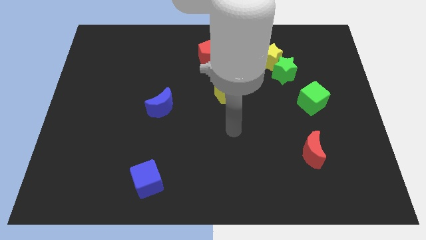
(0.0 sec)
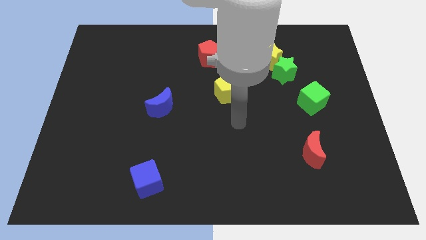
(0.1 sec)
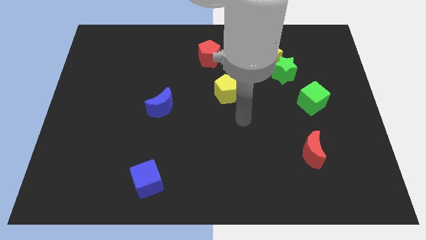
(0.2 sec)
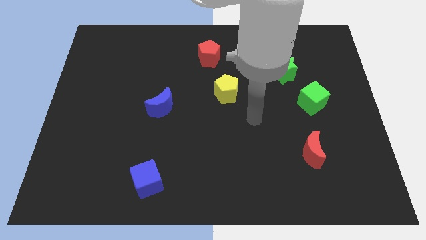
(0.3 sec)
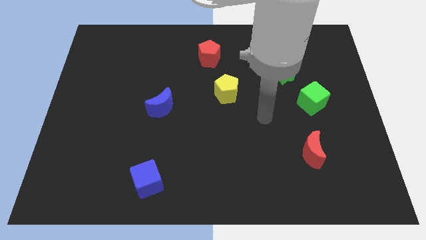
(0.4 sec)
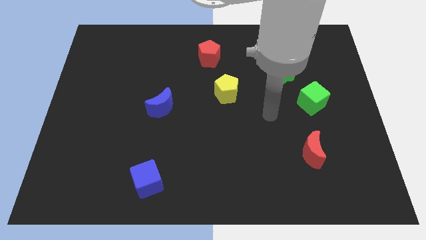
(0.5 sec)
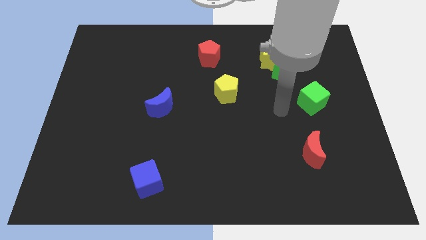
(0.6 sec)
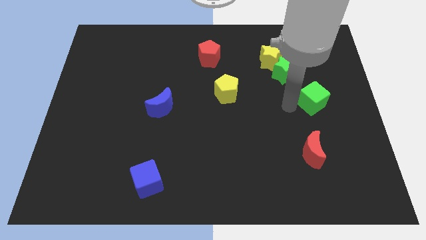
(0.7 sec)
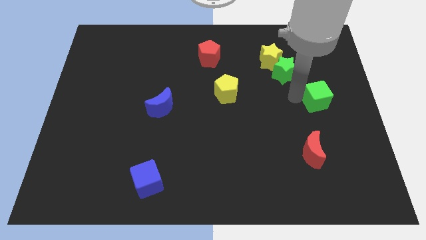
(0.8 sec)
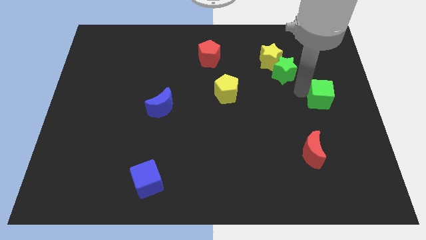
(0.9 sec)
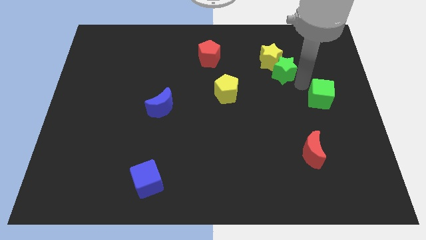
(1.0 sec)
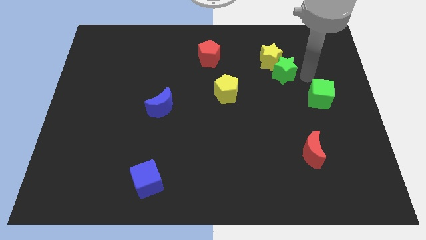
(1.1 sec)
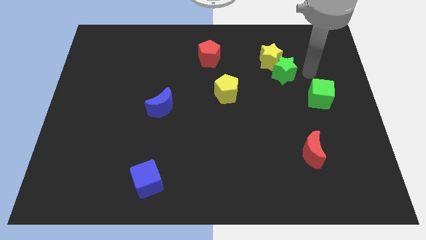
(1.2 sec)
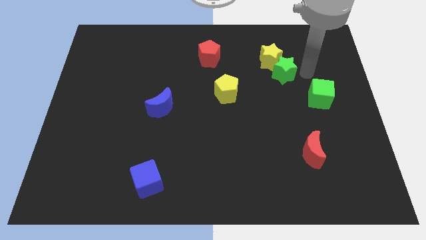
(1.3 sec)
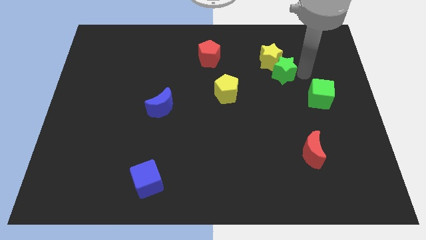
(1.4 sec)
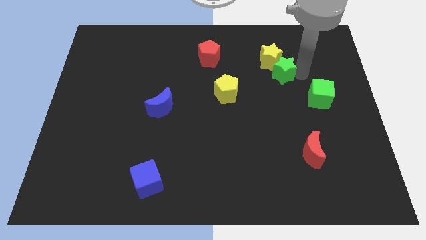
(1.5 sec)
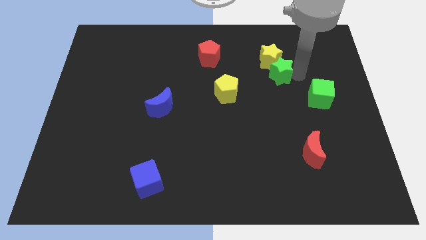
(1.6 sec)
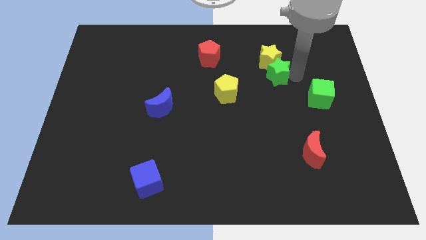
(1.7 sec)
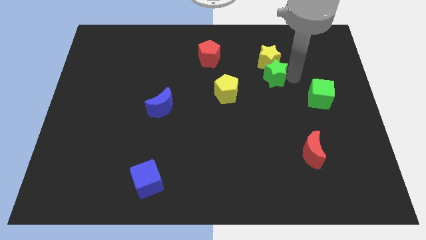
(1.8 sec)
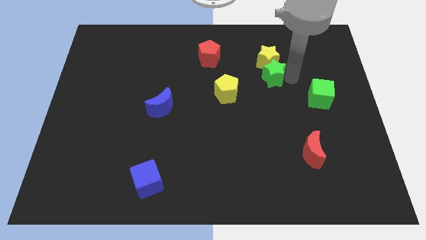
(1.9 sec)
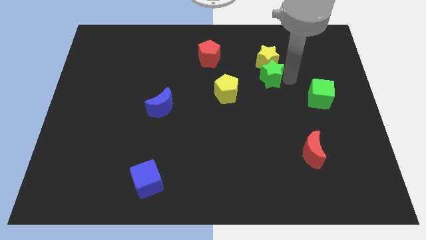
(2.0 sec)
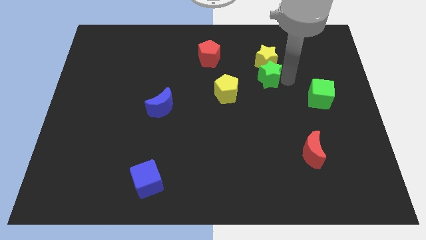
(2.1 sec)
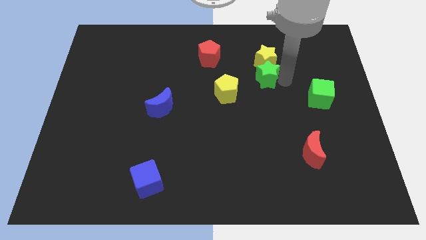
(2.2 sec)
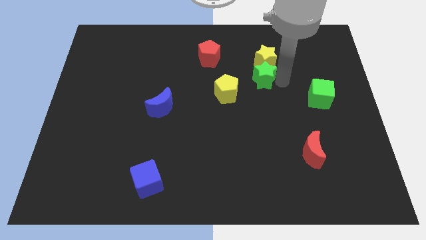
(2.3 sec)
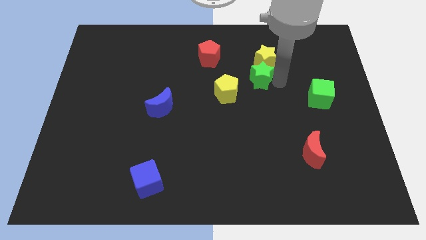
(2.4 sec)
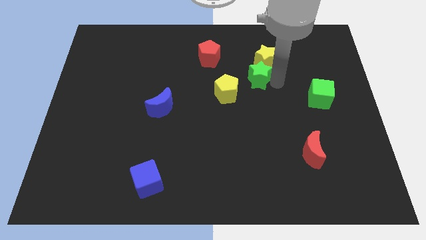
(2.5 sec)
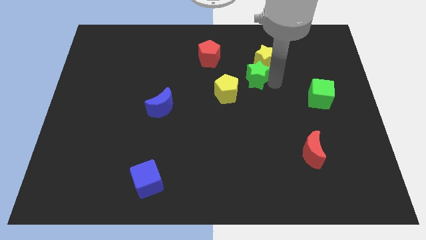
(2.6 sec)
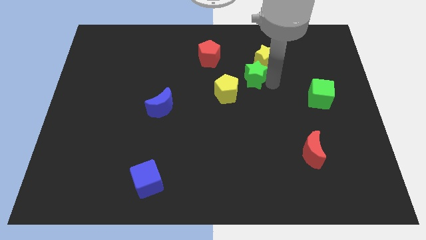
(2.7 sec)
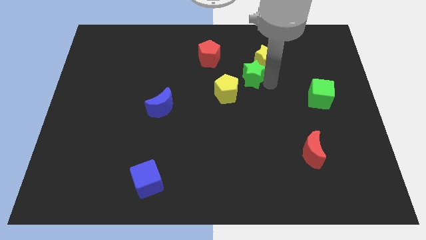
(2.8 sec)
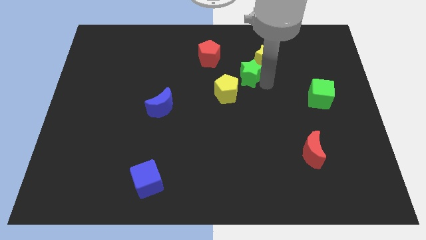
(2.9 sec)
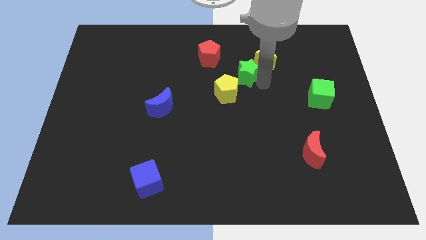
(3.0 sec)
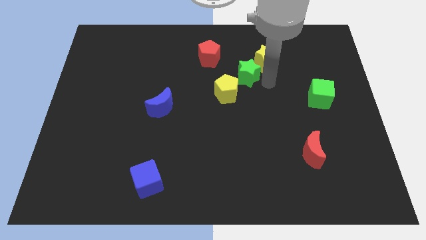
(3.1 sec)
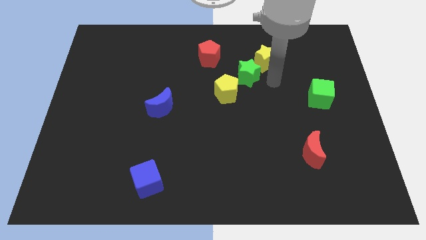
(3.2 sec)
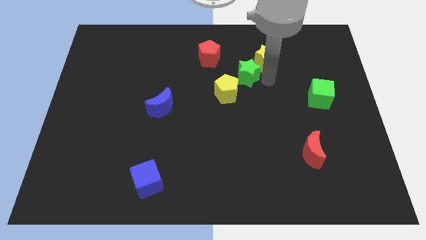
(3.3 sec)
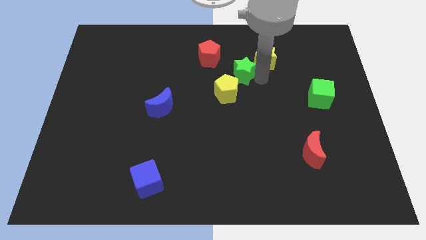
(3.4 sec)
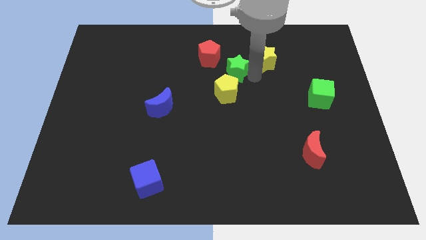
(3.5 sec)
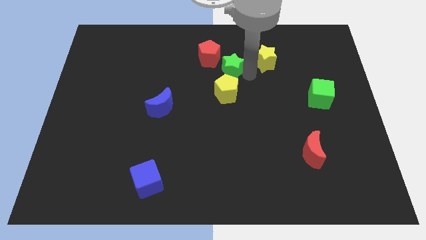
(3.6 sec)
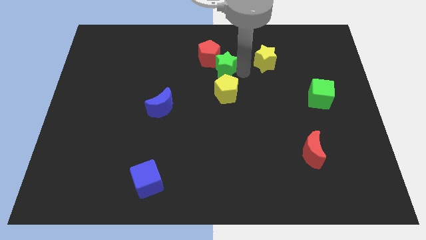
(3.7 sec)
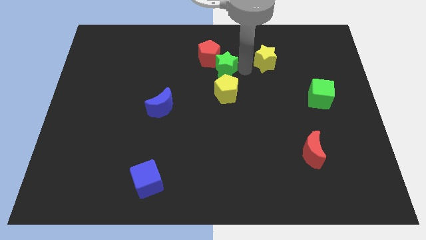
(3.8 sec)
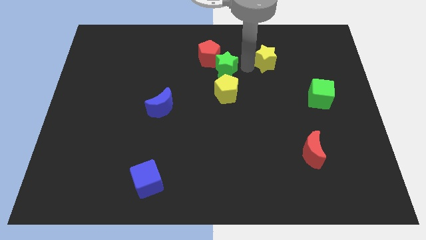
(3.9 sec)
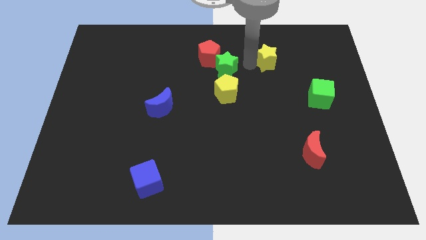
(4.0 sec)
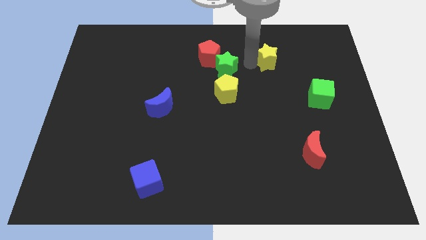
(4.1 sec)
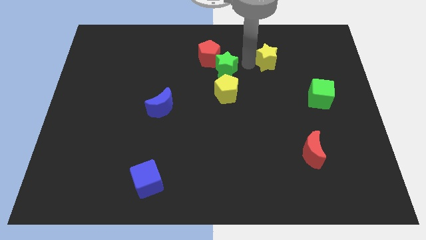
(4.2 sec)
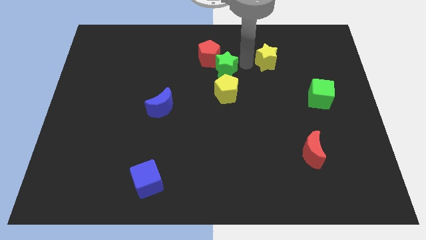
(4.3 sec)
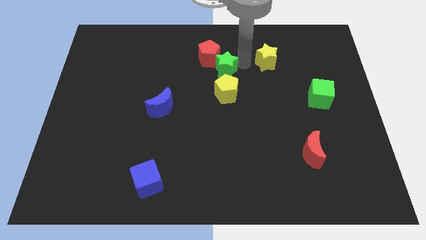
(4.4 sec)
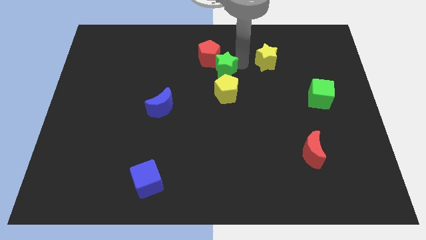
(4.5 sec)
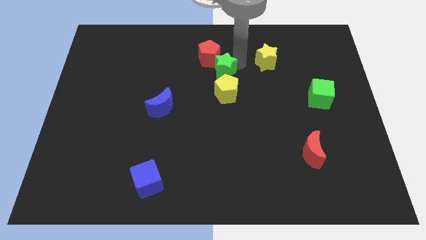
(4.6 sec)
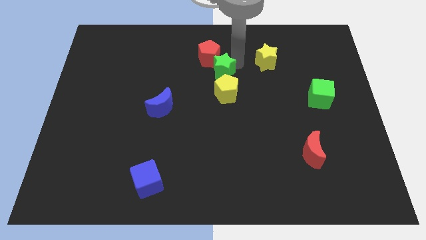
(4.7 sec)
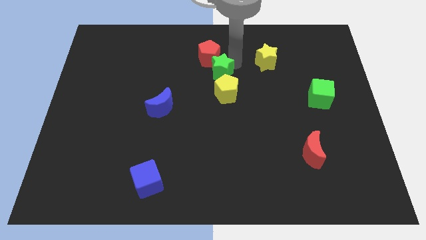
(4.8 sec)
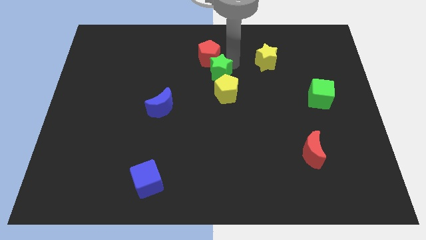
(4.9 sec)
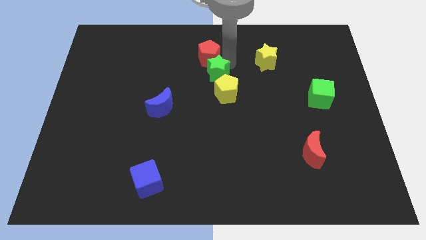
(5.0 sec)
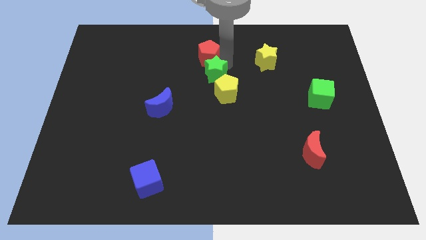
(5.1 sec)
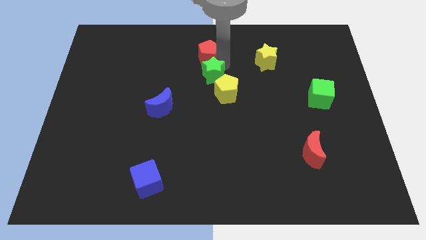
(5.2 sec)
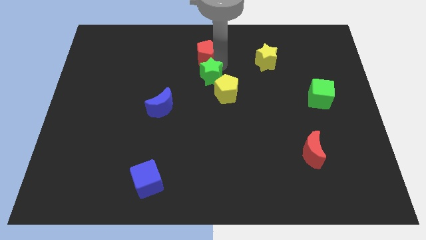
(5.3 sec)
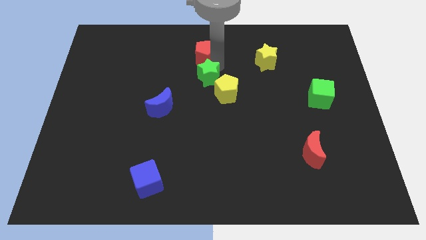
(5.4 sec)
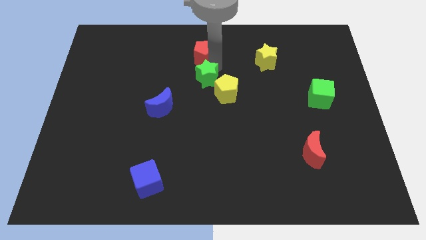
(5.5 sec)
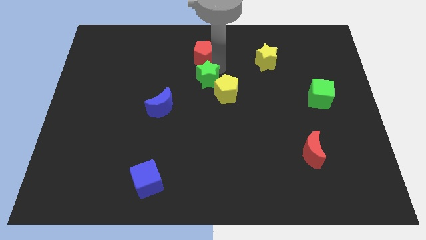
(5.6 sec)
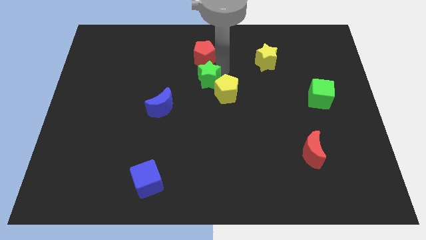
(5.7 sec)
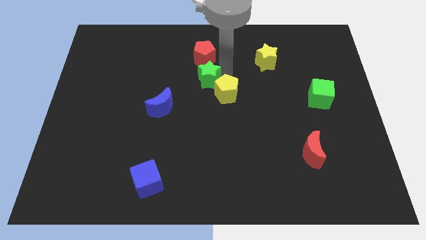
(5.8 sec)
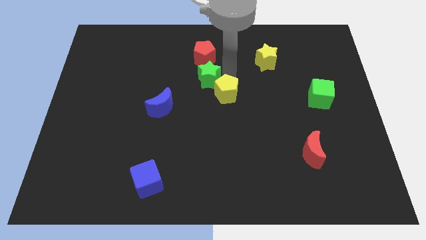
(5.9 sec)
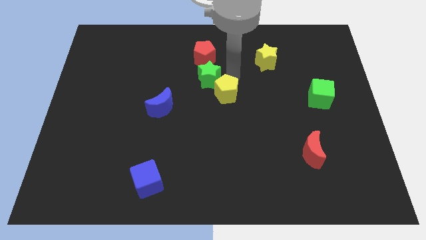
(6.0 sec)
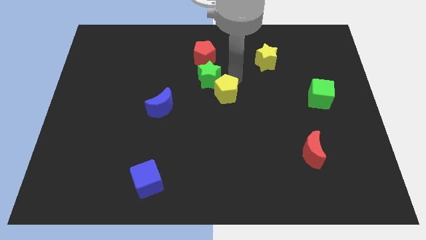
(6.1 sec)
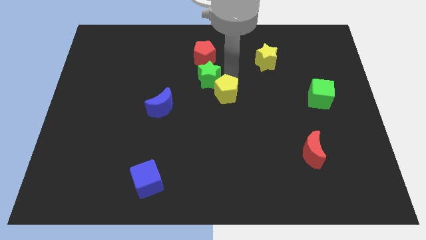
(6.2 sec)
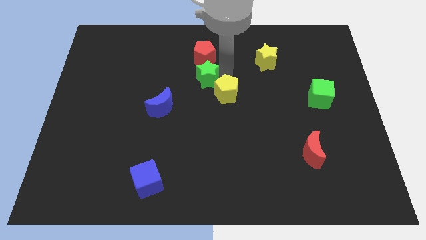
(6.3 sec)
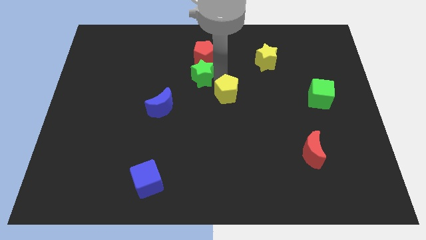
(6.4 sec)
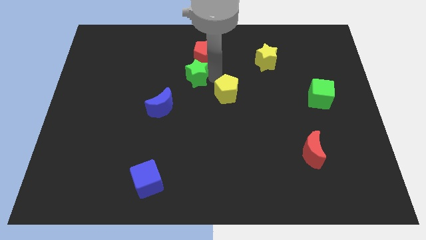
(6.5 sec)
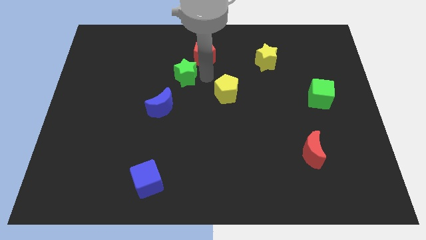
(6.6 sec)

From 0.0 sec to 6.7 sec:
move the green star to the top of the blue moon
